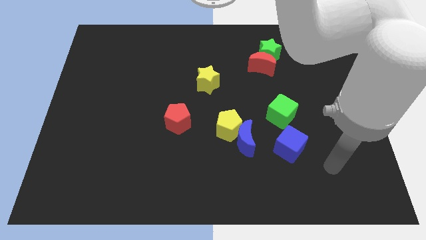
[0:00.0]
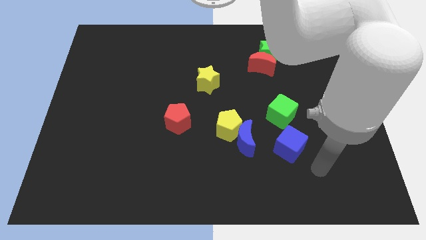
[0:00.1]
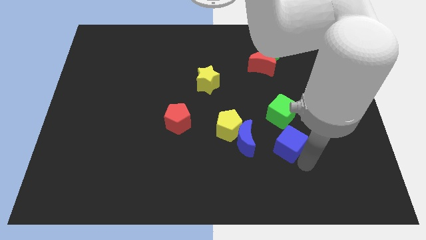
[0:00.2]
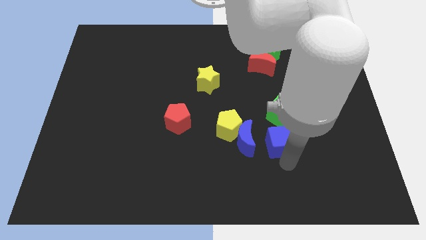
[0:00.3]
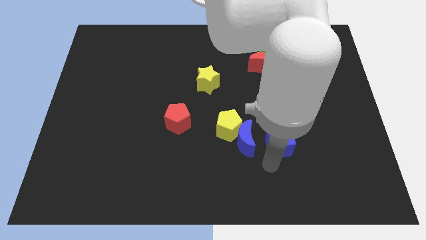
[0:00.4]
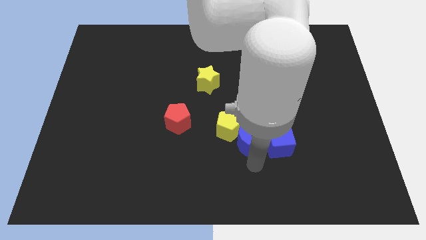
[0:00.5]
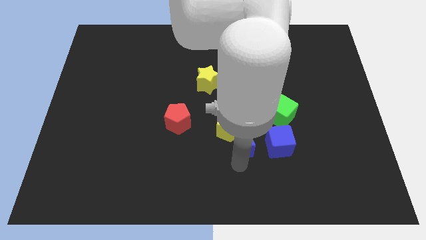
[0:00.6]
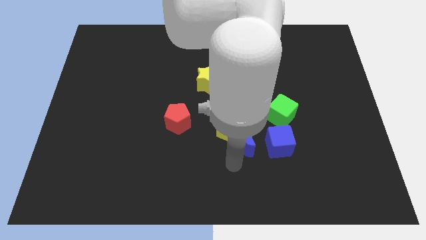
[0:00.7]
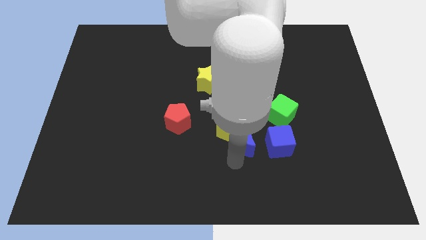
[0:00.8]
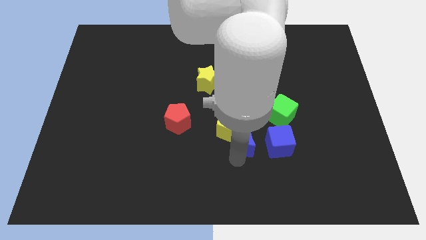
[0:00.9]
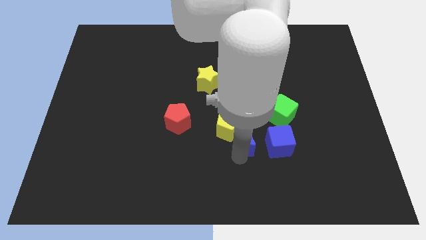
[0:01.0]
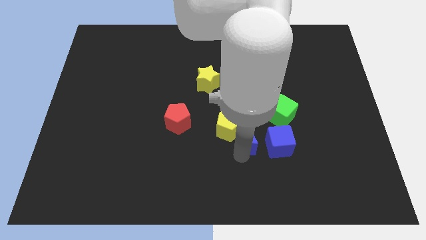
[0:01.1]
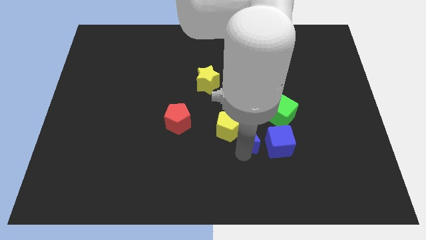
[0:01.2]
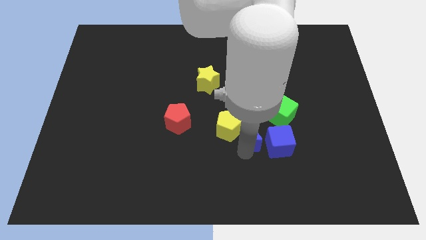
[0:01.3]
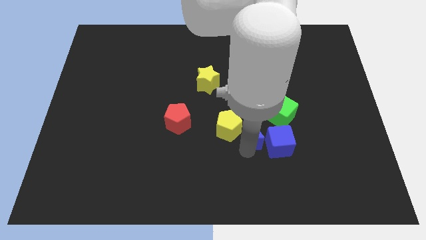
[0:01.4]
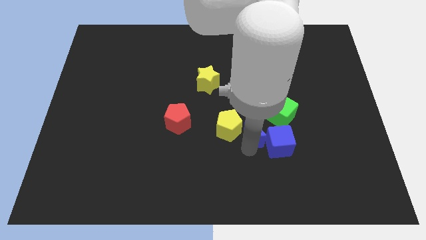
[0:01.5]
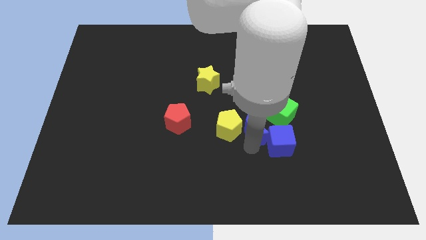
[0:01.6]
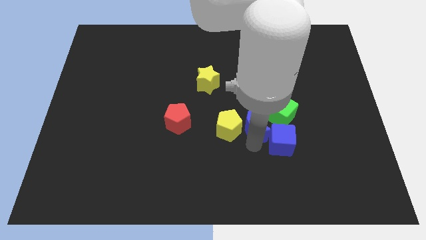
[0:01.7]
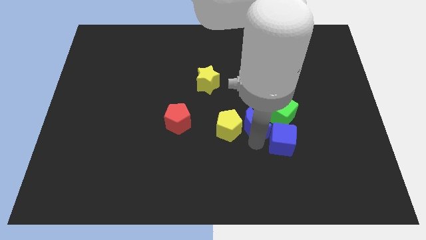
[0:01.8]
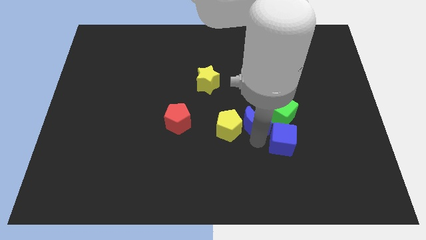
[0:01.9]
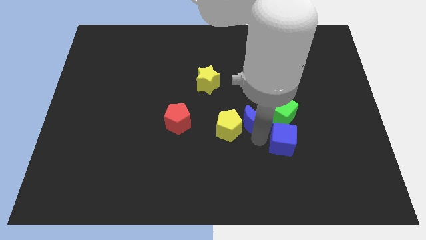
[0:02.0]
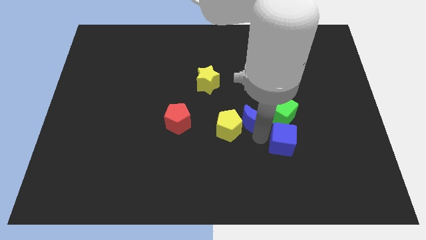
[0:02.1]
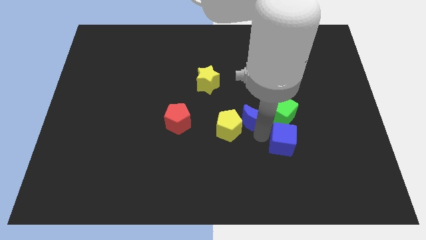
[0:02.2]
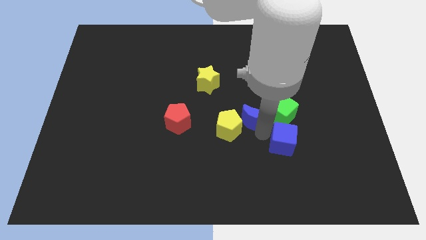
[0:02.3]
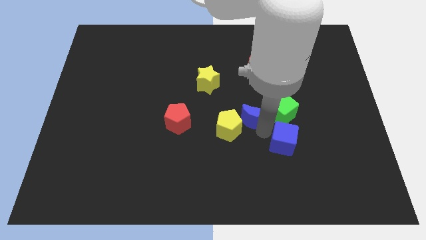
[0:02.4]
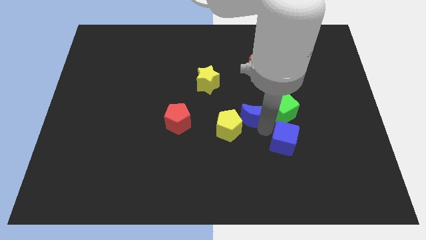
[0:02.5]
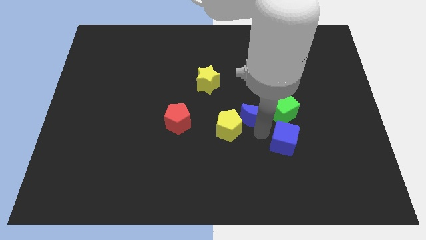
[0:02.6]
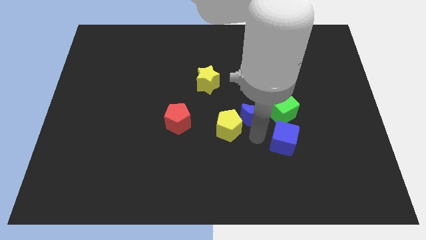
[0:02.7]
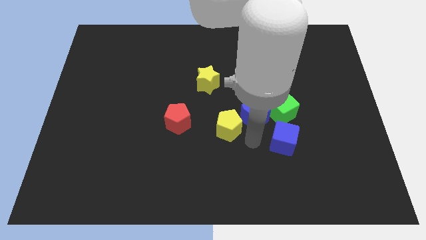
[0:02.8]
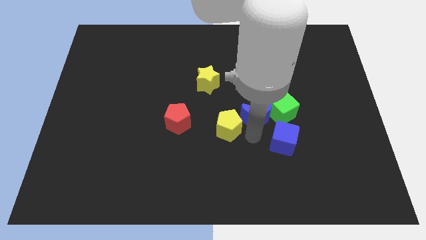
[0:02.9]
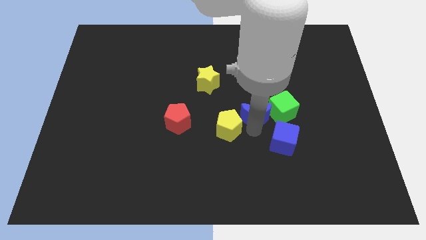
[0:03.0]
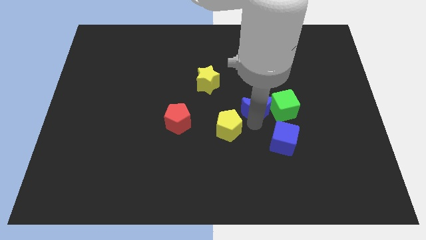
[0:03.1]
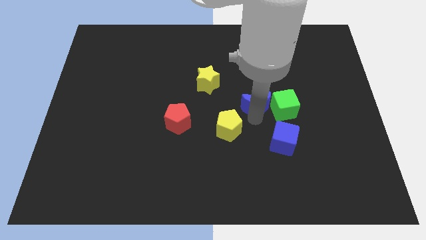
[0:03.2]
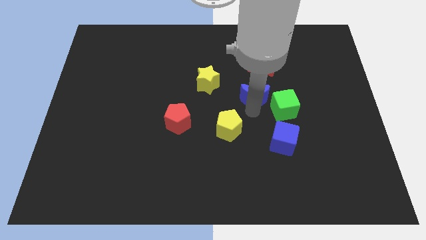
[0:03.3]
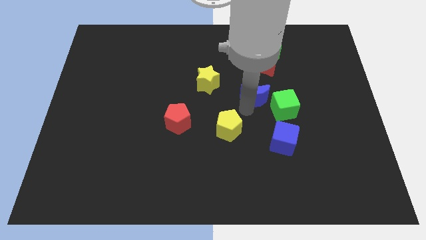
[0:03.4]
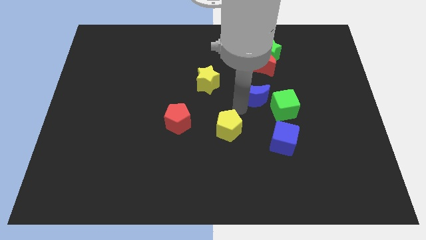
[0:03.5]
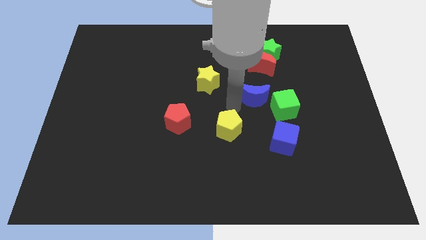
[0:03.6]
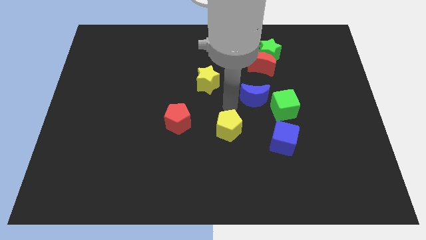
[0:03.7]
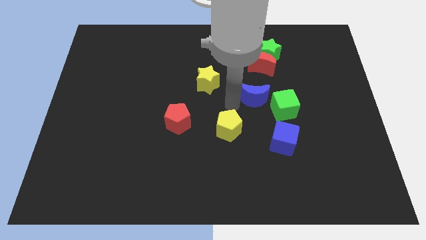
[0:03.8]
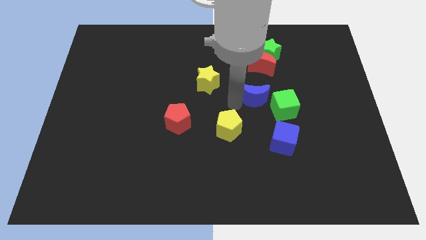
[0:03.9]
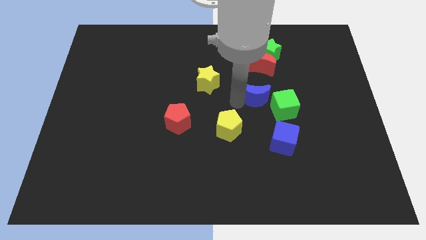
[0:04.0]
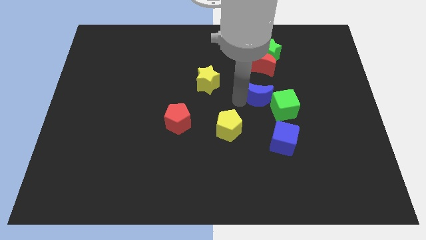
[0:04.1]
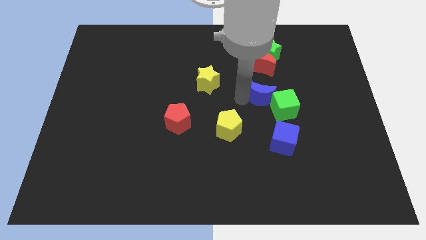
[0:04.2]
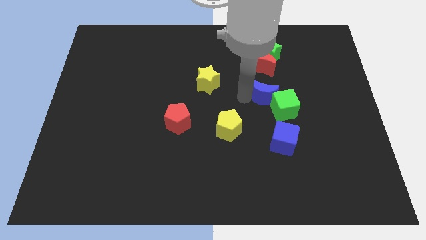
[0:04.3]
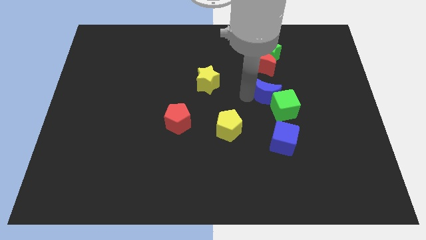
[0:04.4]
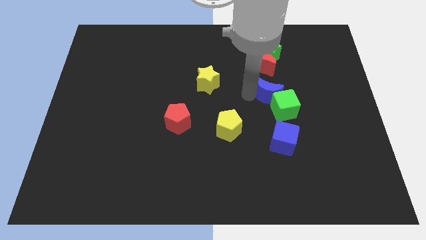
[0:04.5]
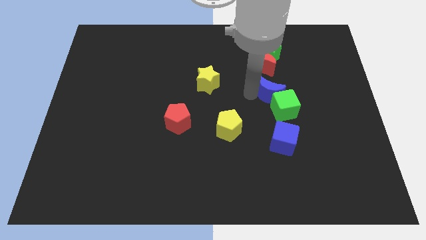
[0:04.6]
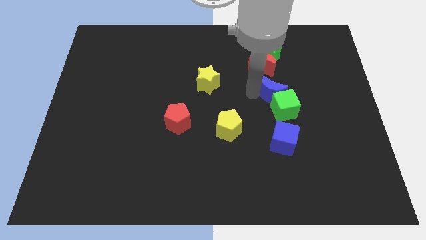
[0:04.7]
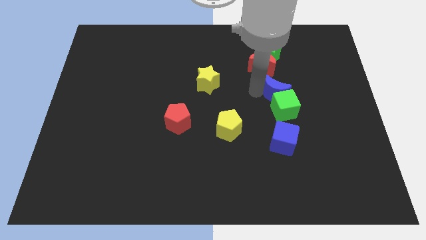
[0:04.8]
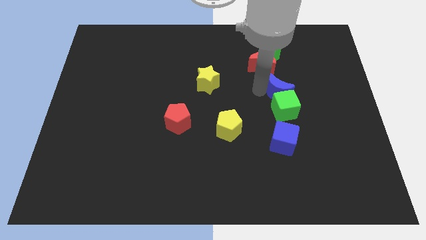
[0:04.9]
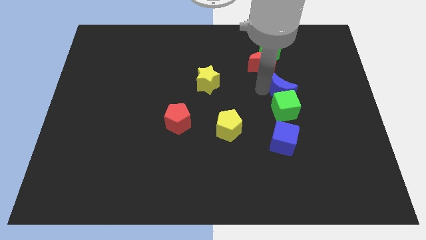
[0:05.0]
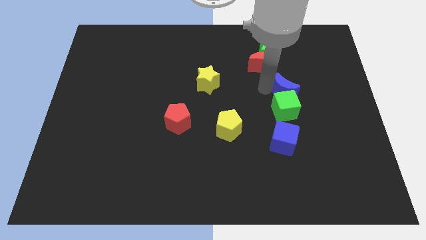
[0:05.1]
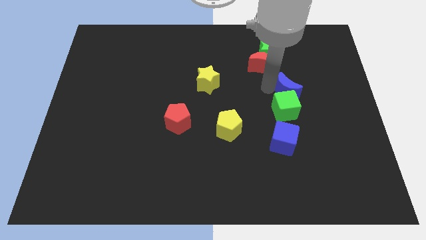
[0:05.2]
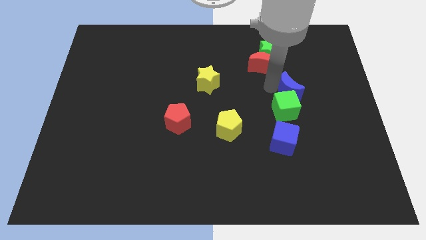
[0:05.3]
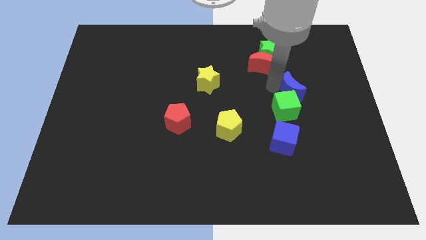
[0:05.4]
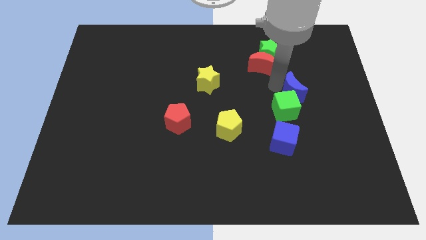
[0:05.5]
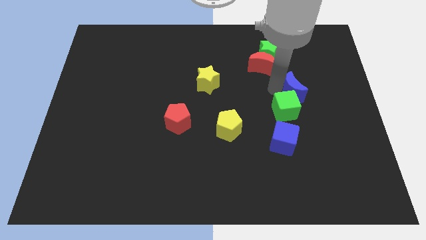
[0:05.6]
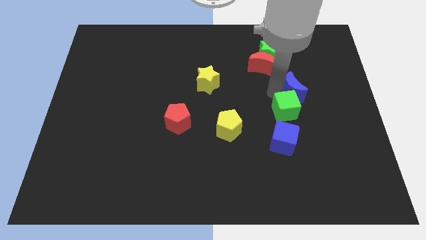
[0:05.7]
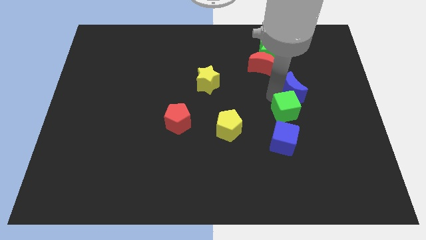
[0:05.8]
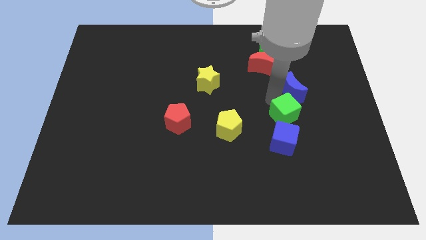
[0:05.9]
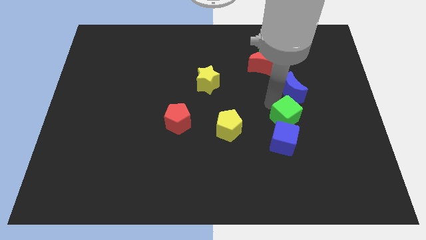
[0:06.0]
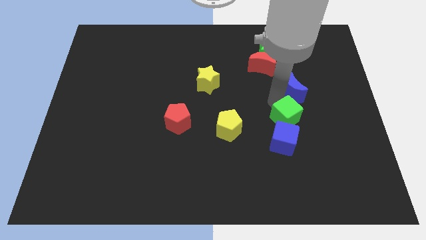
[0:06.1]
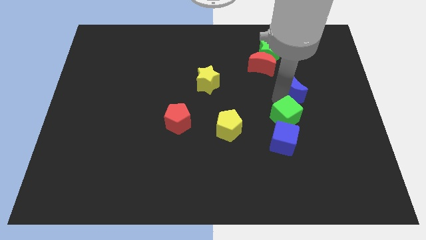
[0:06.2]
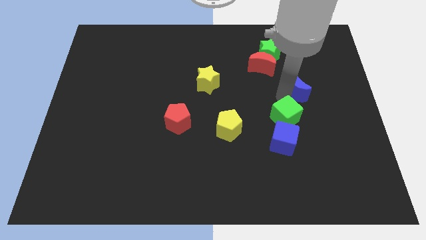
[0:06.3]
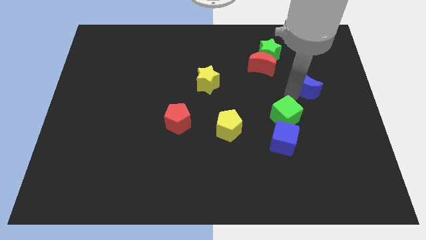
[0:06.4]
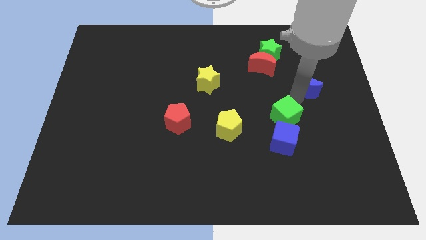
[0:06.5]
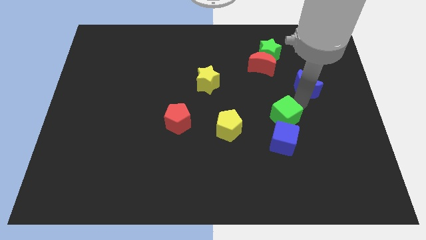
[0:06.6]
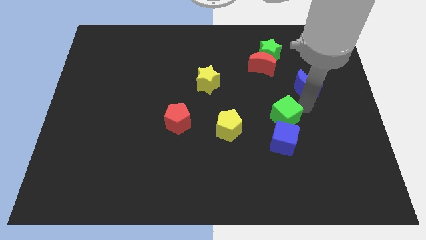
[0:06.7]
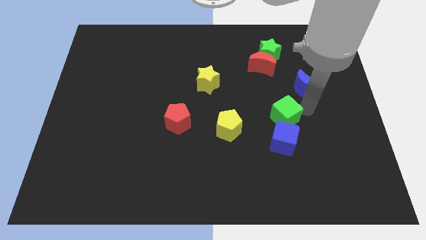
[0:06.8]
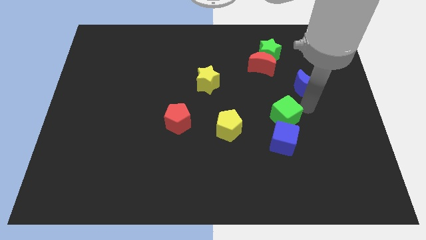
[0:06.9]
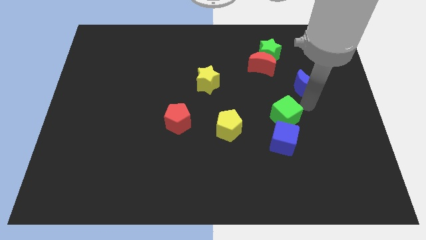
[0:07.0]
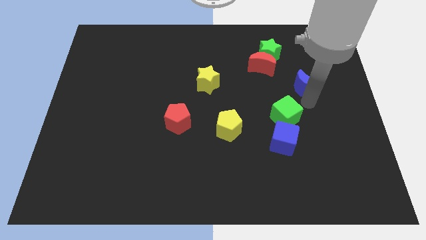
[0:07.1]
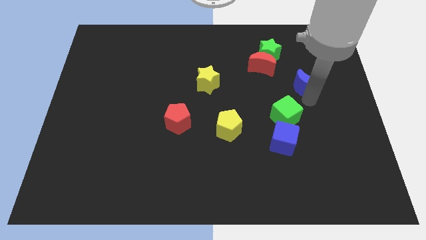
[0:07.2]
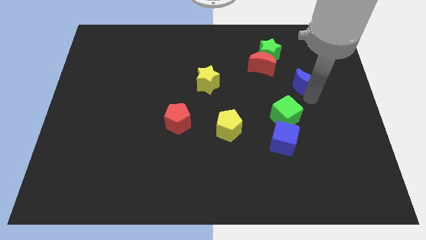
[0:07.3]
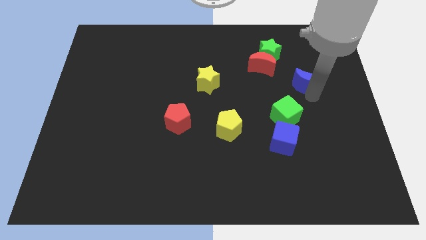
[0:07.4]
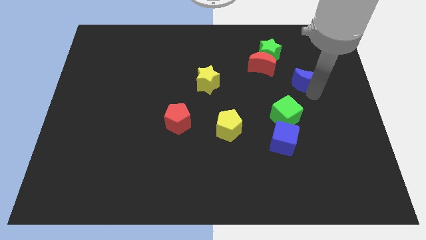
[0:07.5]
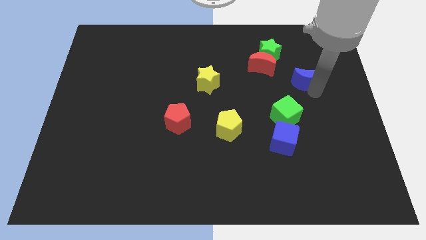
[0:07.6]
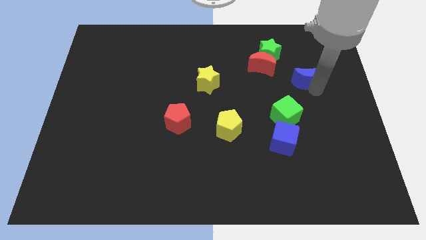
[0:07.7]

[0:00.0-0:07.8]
put the blue moon to the right of the red moon
